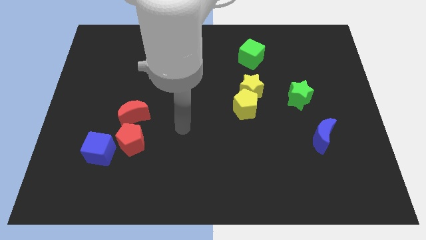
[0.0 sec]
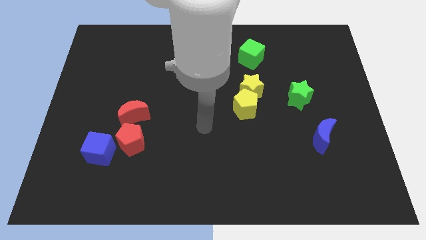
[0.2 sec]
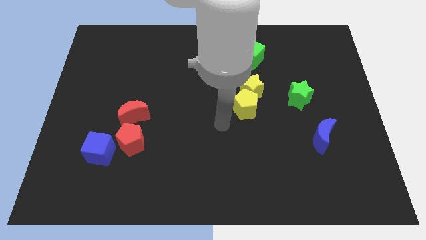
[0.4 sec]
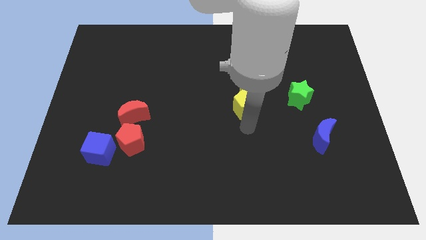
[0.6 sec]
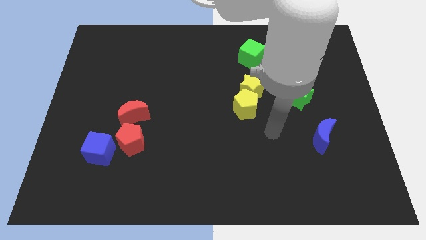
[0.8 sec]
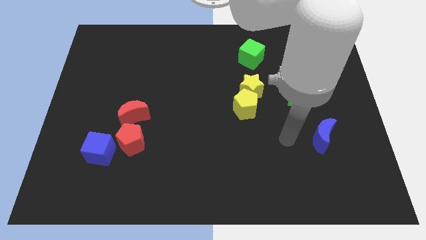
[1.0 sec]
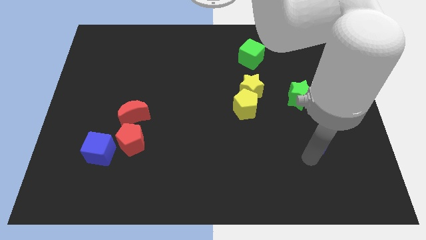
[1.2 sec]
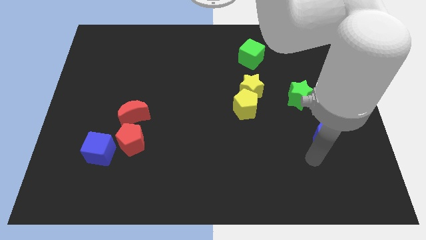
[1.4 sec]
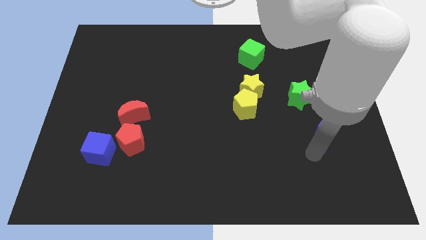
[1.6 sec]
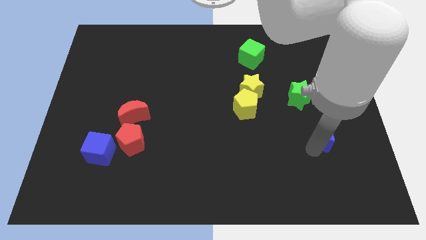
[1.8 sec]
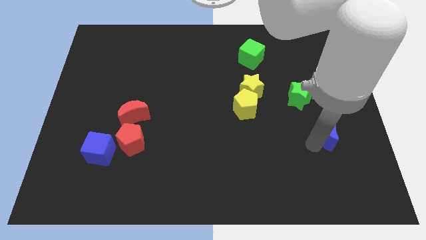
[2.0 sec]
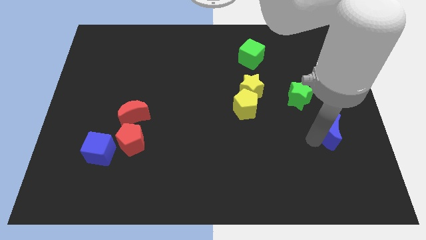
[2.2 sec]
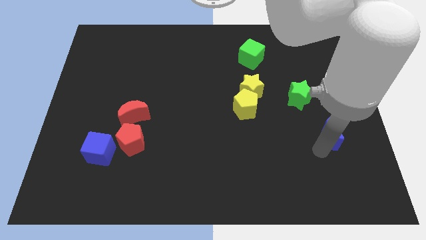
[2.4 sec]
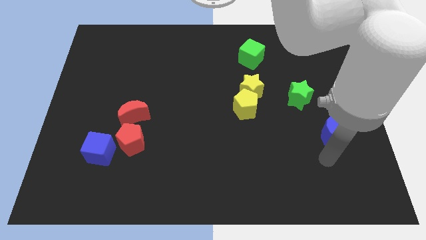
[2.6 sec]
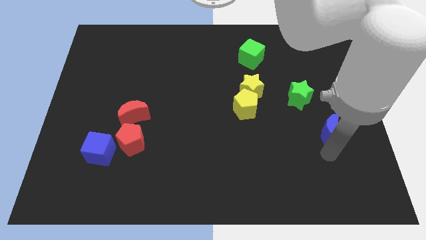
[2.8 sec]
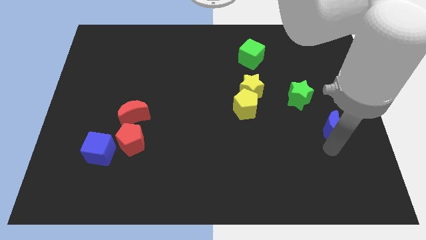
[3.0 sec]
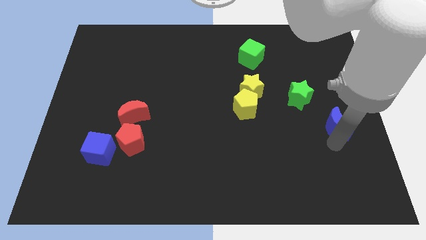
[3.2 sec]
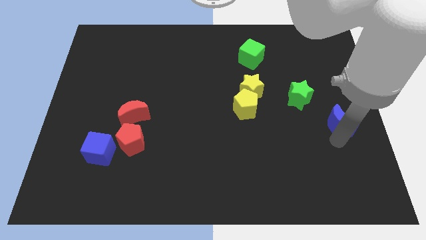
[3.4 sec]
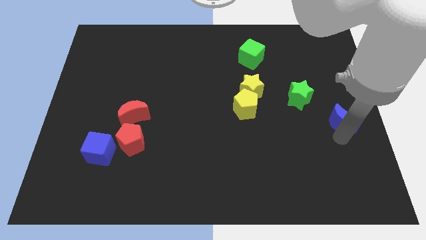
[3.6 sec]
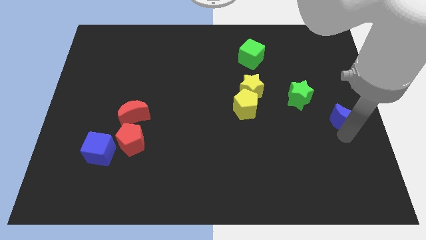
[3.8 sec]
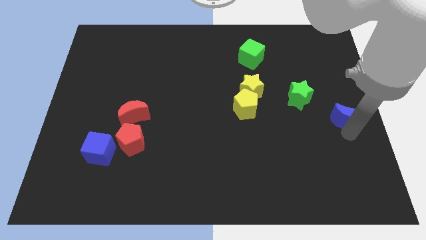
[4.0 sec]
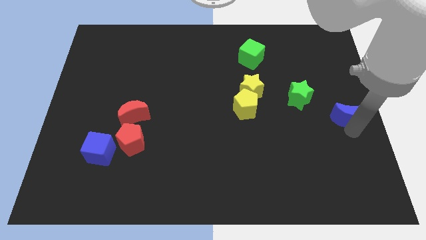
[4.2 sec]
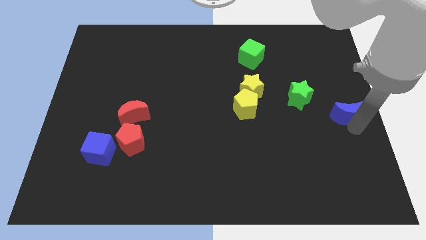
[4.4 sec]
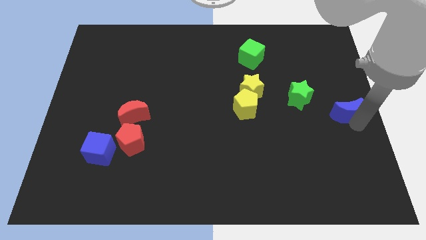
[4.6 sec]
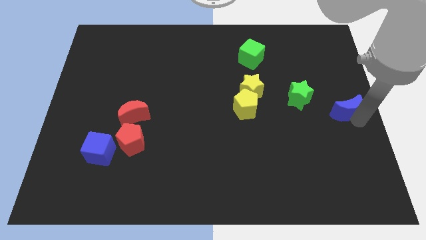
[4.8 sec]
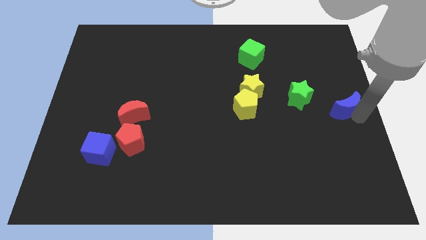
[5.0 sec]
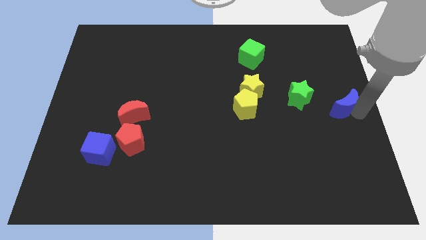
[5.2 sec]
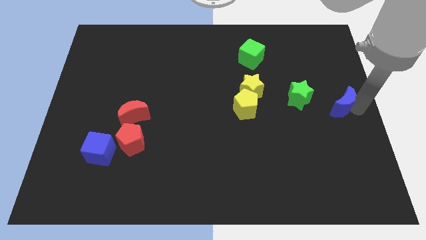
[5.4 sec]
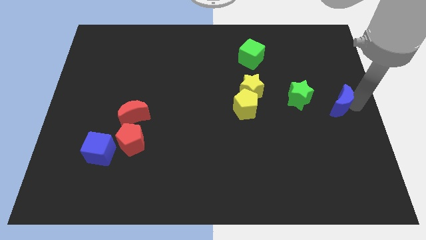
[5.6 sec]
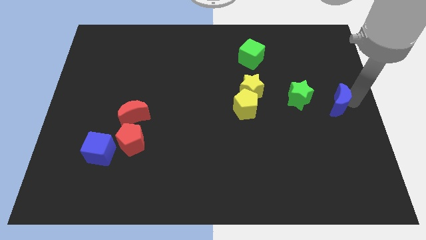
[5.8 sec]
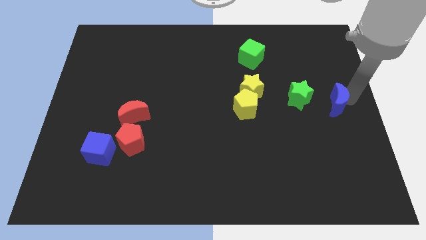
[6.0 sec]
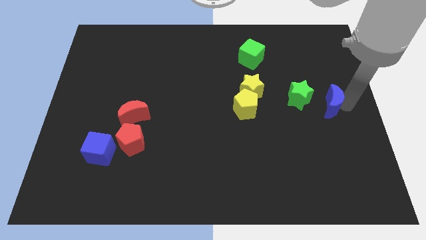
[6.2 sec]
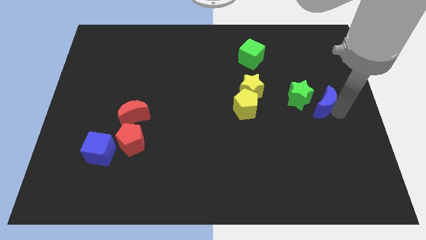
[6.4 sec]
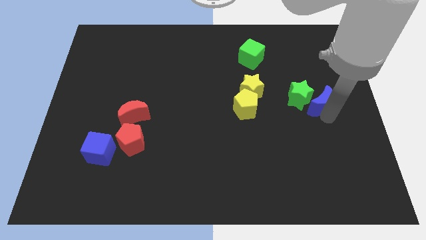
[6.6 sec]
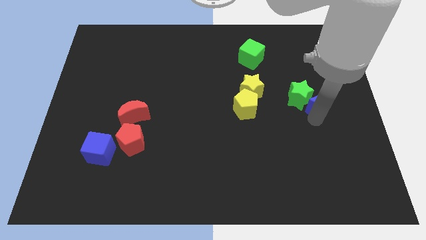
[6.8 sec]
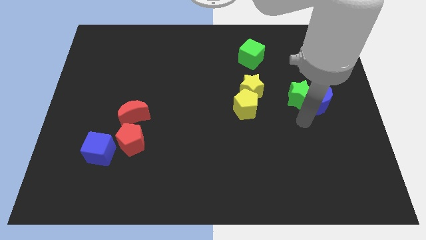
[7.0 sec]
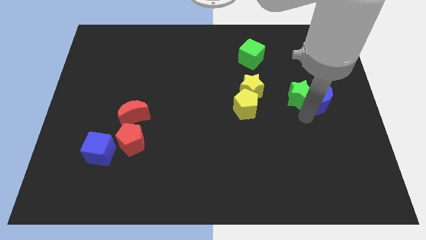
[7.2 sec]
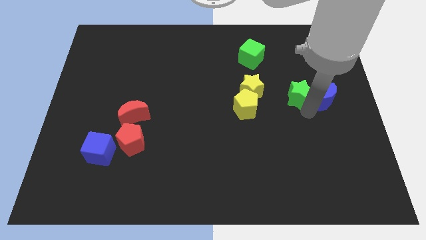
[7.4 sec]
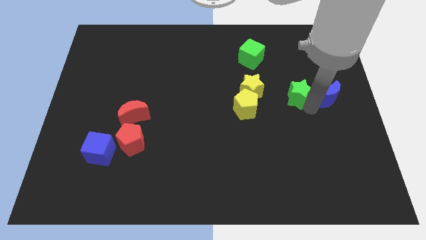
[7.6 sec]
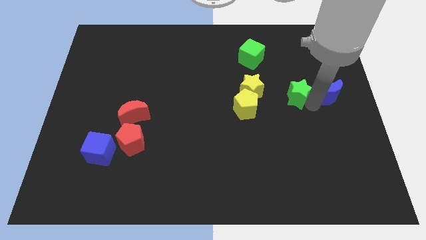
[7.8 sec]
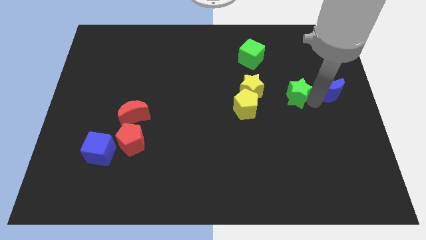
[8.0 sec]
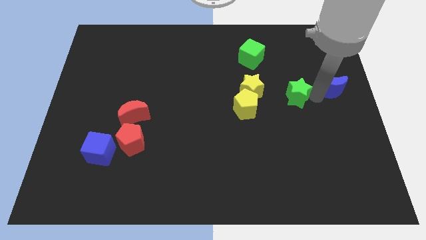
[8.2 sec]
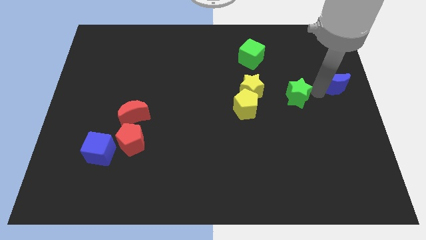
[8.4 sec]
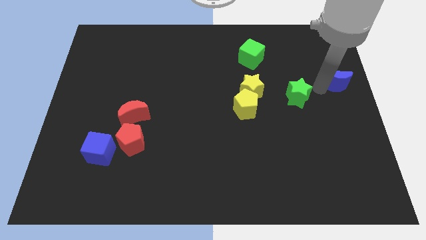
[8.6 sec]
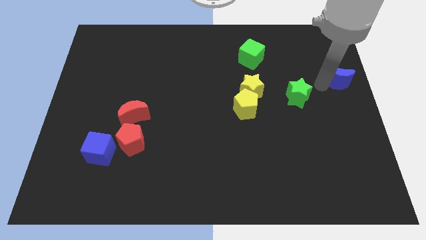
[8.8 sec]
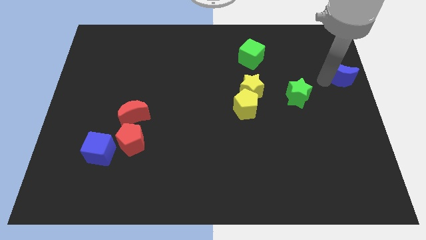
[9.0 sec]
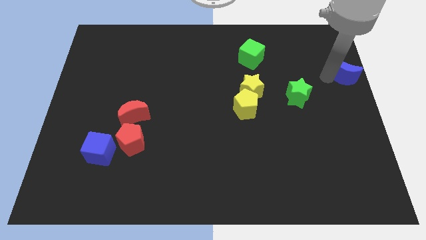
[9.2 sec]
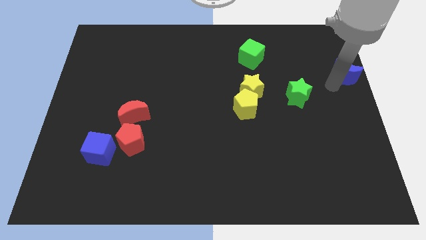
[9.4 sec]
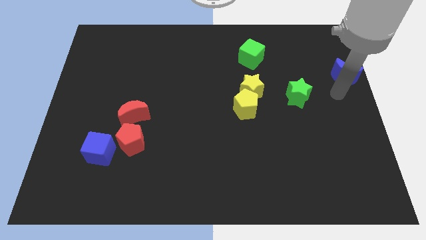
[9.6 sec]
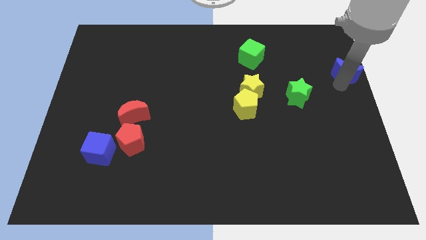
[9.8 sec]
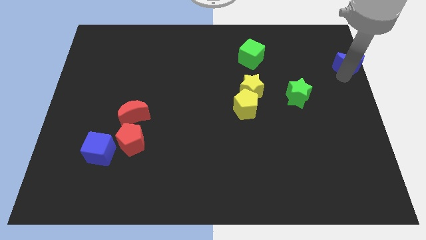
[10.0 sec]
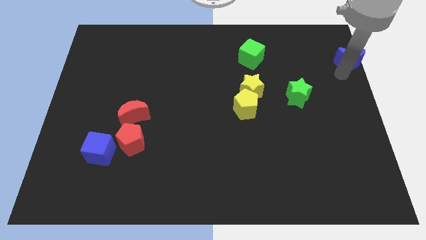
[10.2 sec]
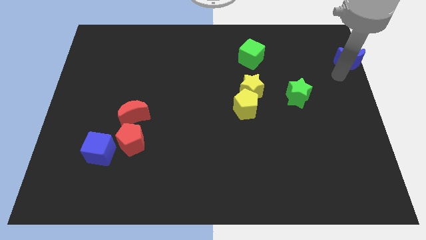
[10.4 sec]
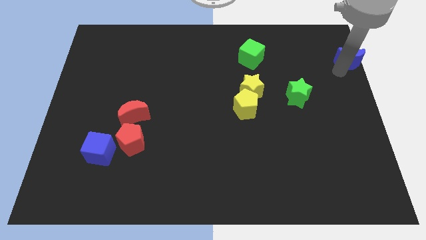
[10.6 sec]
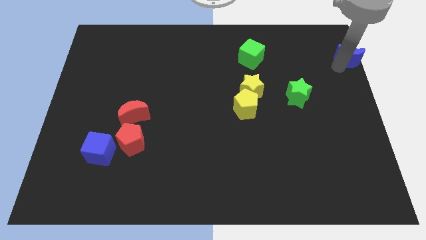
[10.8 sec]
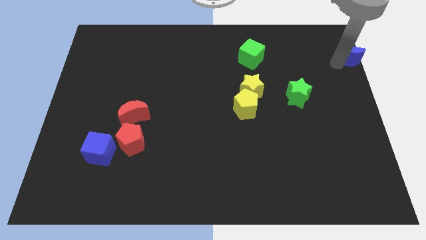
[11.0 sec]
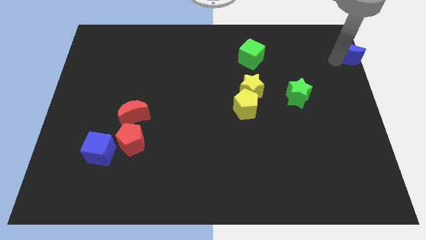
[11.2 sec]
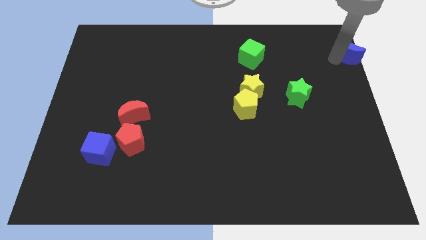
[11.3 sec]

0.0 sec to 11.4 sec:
slide the blue moon to the upper right corner
